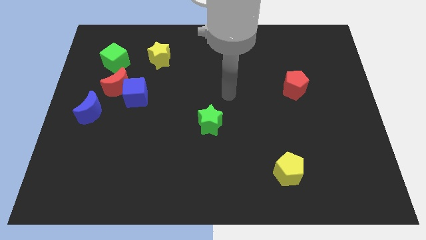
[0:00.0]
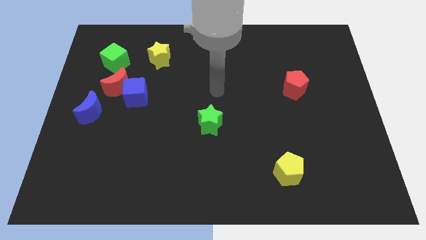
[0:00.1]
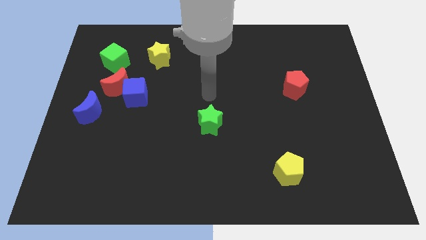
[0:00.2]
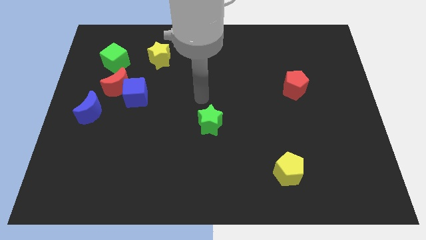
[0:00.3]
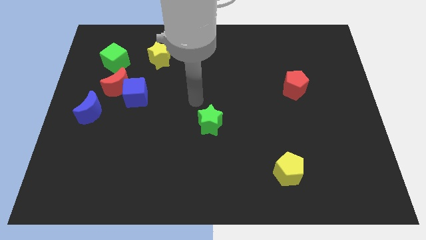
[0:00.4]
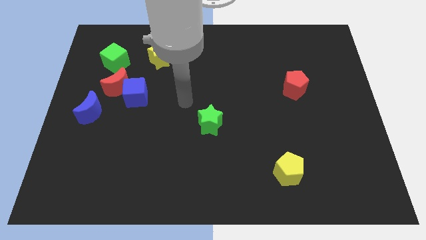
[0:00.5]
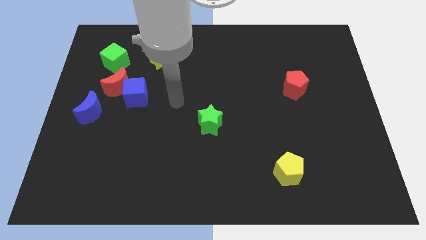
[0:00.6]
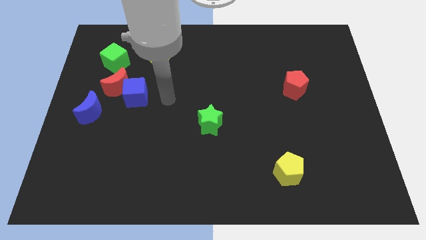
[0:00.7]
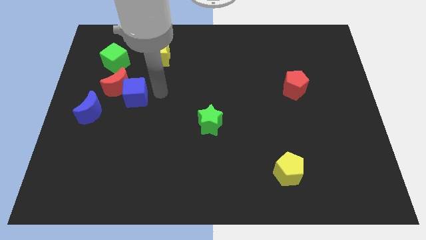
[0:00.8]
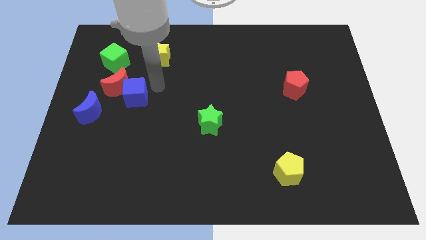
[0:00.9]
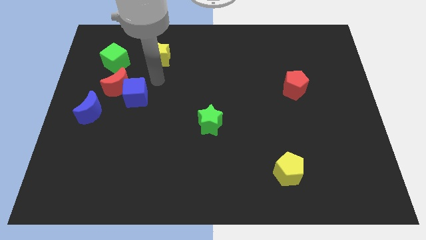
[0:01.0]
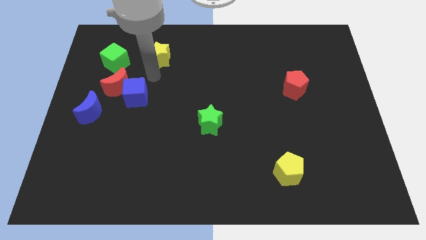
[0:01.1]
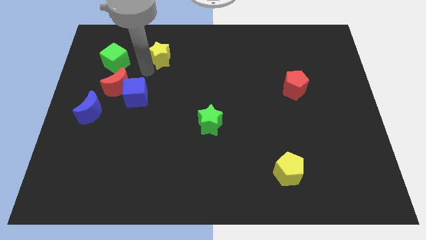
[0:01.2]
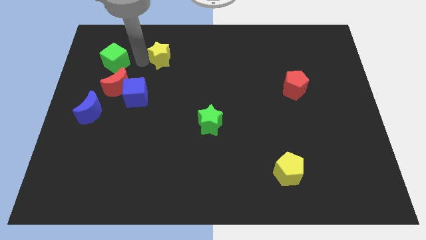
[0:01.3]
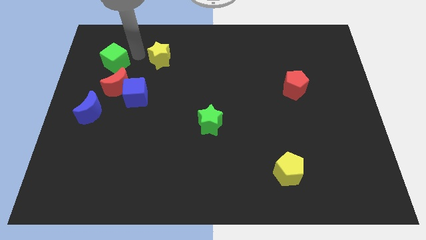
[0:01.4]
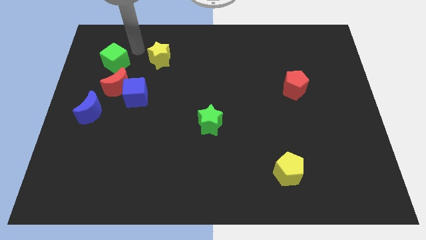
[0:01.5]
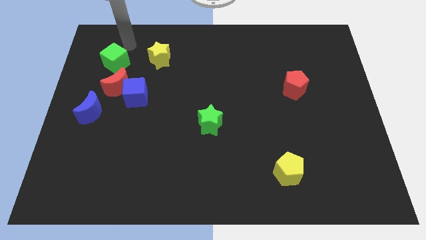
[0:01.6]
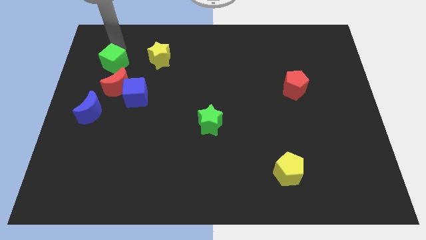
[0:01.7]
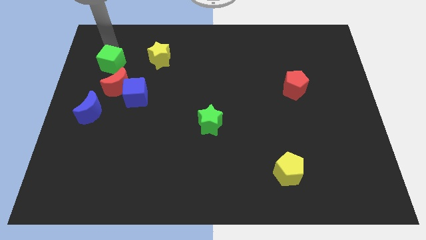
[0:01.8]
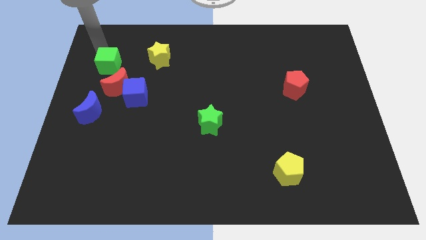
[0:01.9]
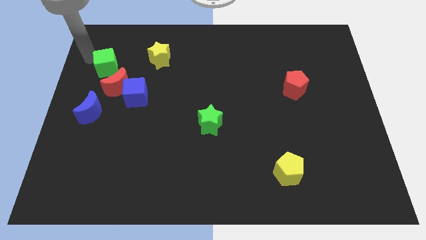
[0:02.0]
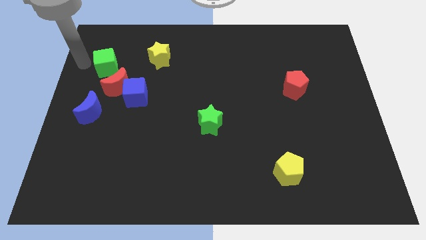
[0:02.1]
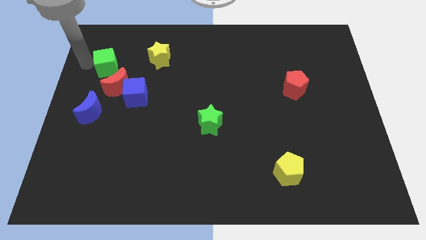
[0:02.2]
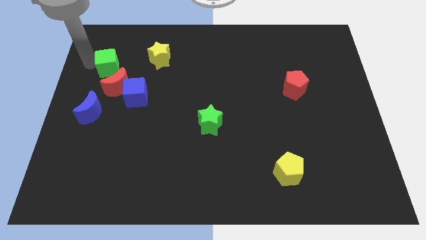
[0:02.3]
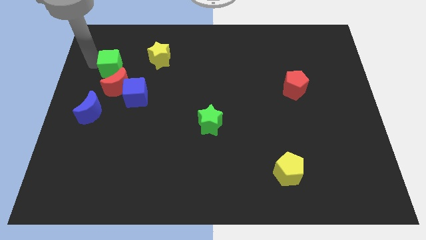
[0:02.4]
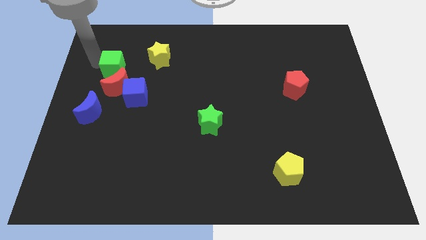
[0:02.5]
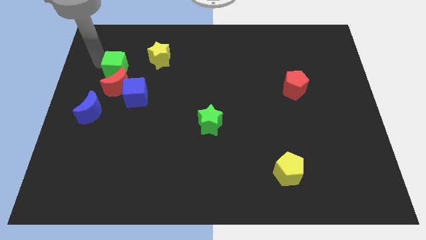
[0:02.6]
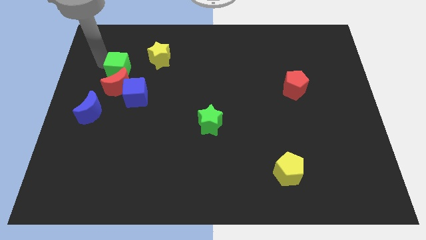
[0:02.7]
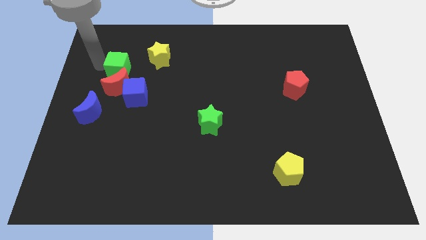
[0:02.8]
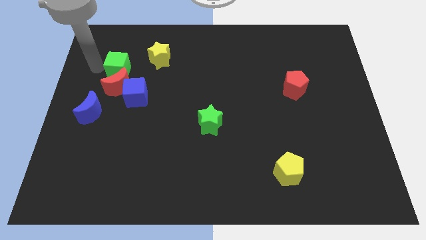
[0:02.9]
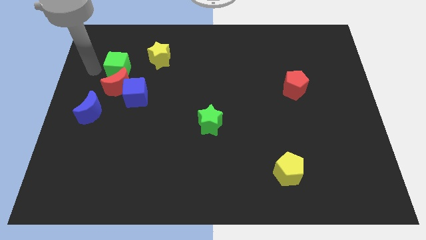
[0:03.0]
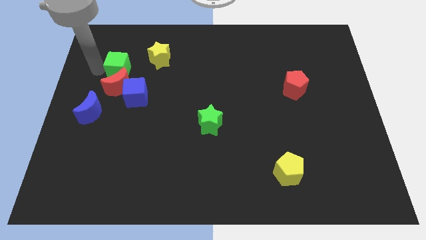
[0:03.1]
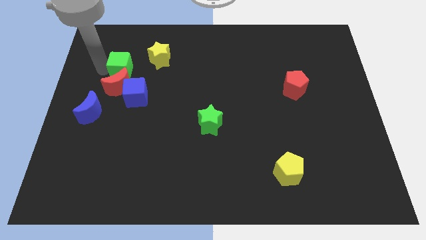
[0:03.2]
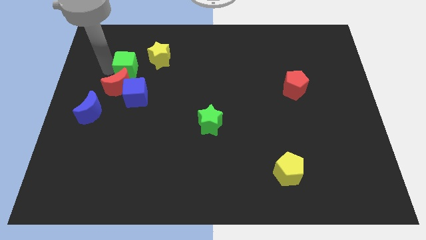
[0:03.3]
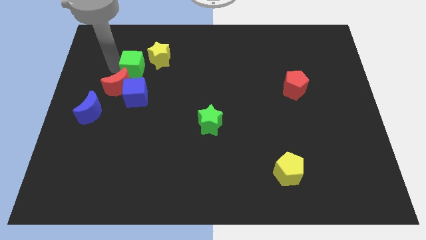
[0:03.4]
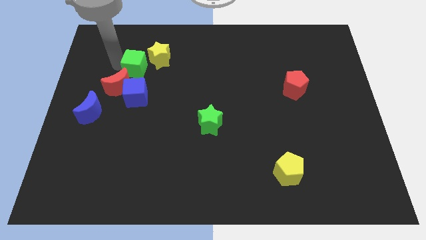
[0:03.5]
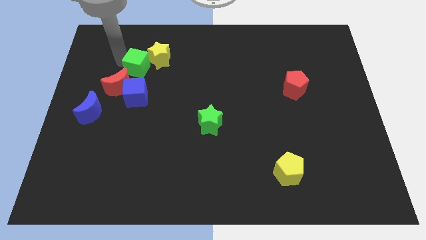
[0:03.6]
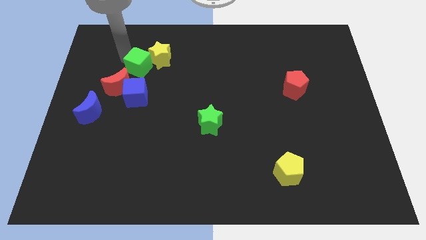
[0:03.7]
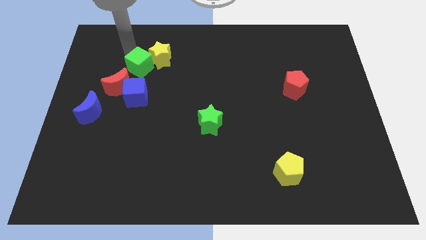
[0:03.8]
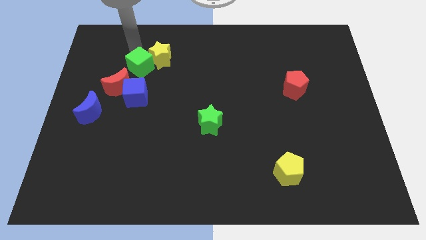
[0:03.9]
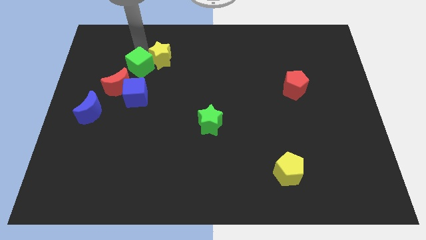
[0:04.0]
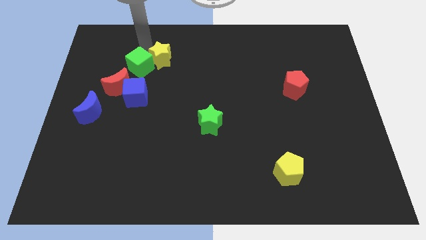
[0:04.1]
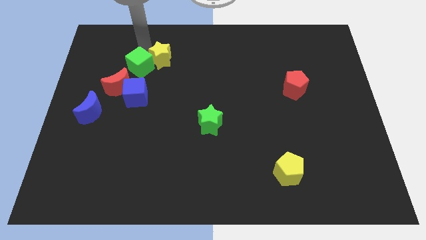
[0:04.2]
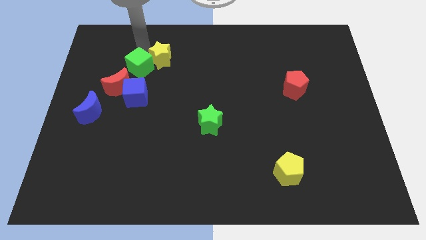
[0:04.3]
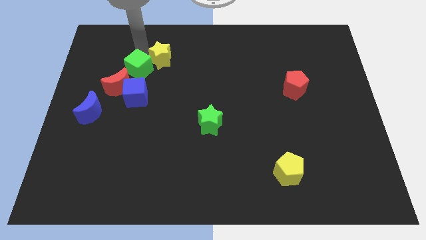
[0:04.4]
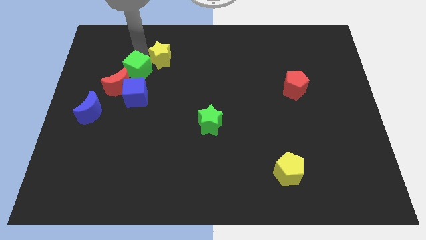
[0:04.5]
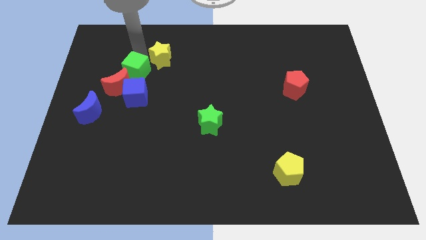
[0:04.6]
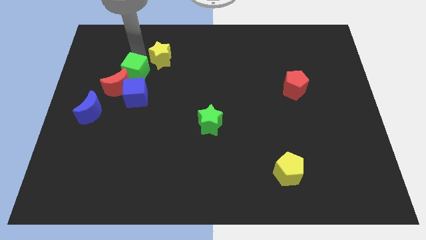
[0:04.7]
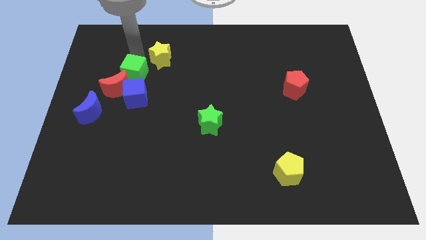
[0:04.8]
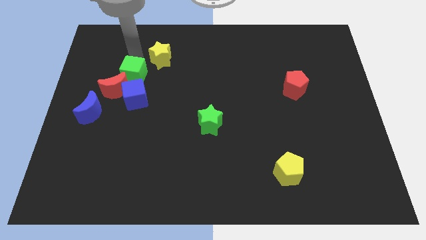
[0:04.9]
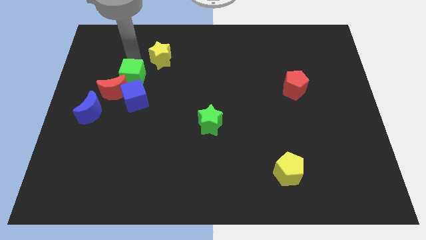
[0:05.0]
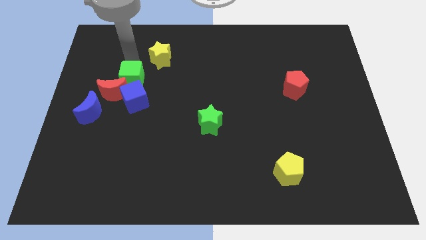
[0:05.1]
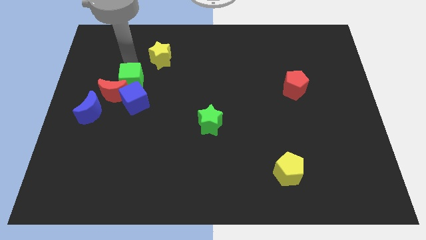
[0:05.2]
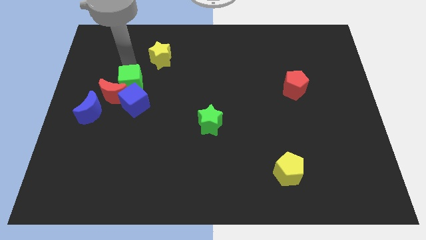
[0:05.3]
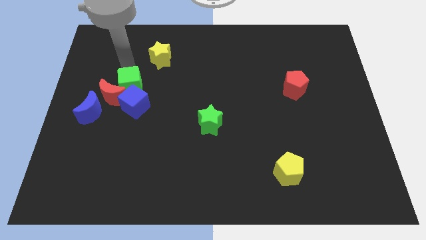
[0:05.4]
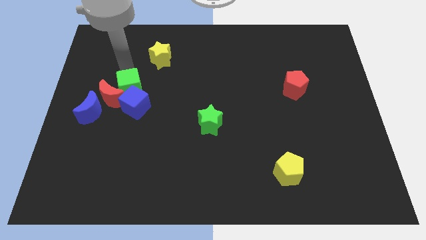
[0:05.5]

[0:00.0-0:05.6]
put the green cube to the blue cube

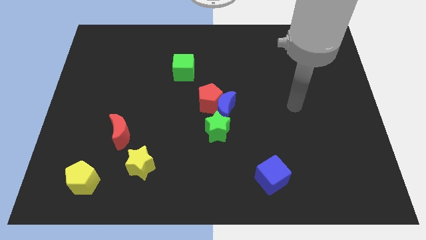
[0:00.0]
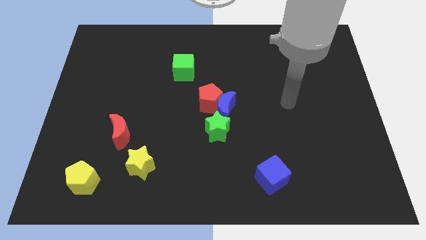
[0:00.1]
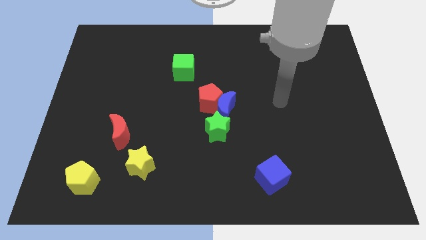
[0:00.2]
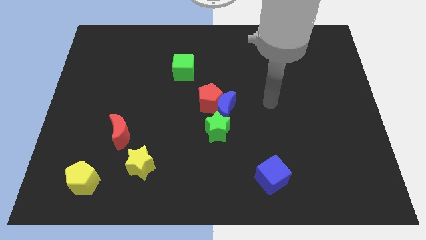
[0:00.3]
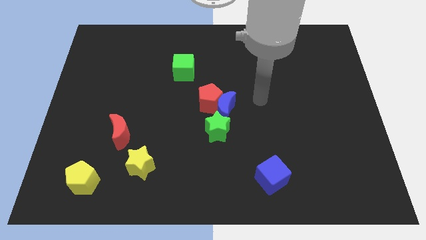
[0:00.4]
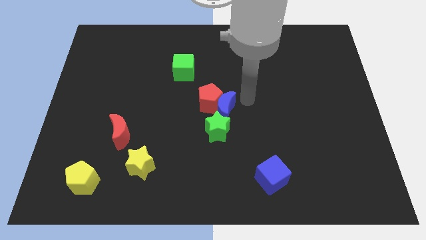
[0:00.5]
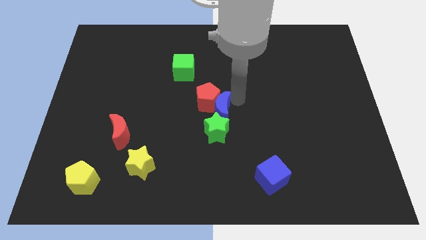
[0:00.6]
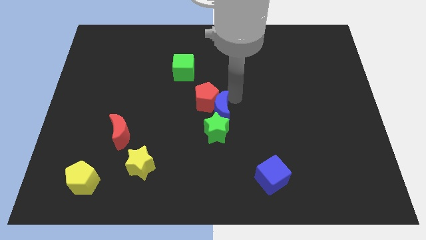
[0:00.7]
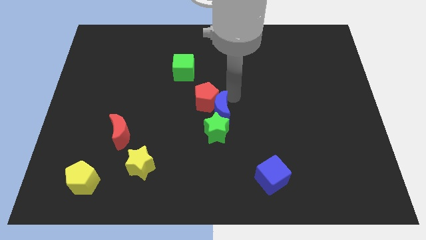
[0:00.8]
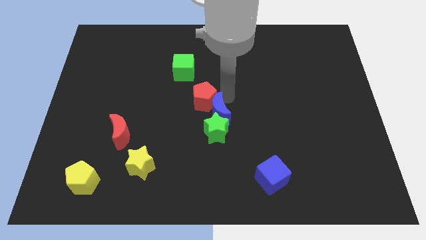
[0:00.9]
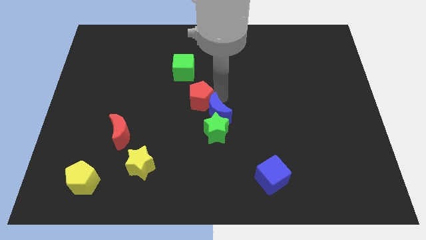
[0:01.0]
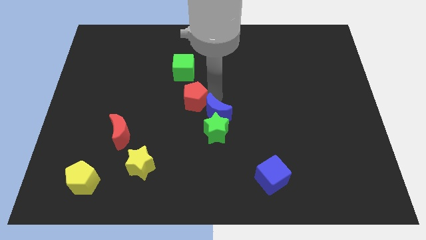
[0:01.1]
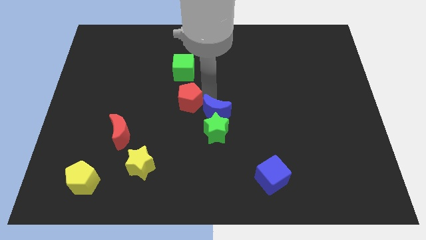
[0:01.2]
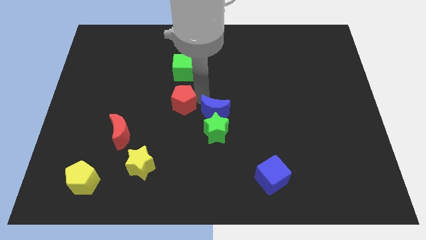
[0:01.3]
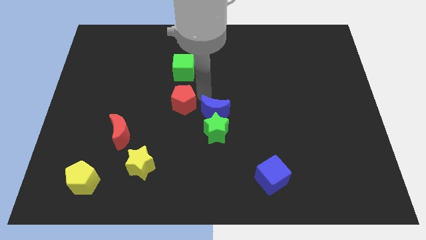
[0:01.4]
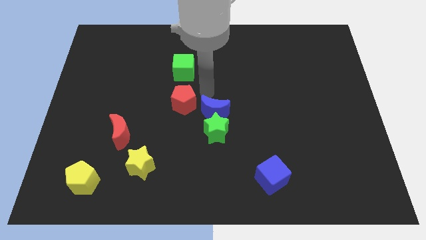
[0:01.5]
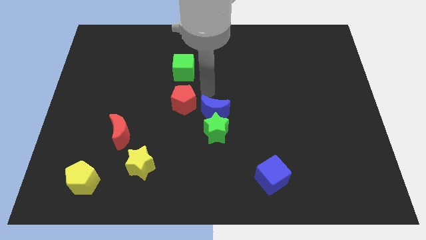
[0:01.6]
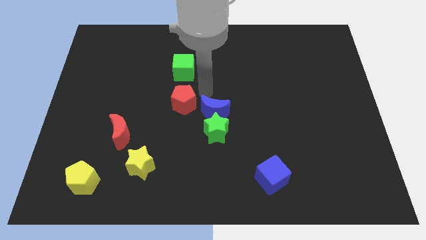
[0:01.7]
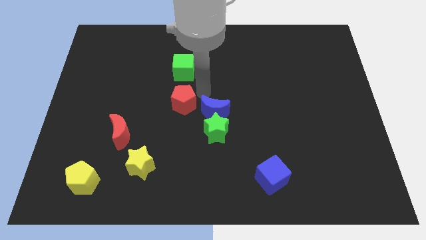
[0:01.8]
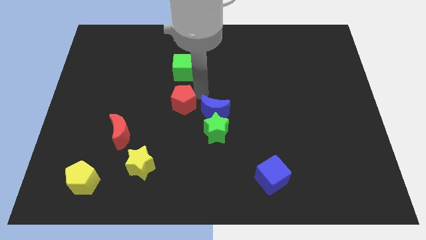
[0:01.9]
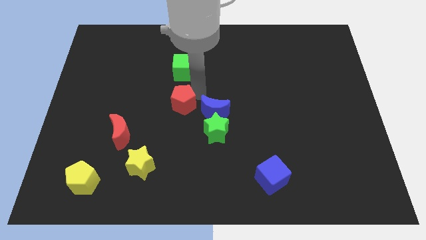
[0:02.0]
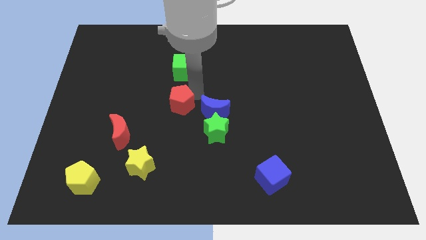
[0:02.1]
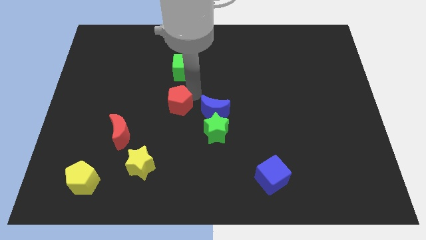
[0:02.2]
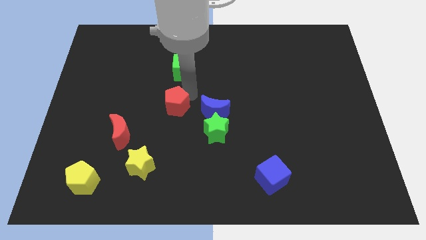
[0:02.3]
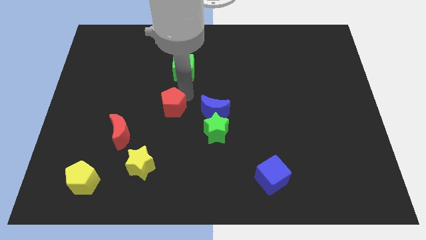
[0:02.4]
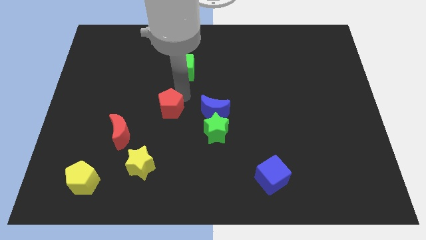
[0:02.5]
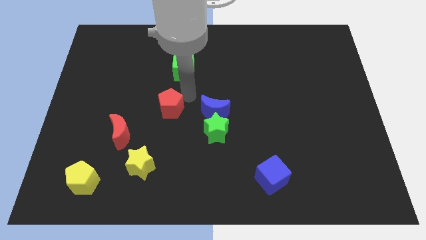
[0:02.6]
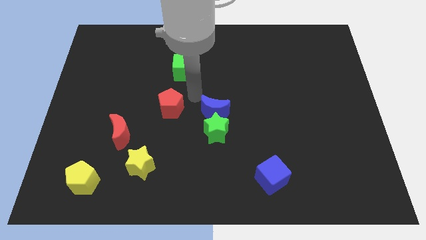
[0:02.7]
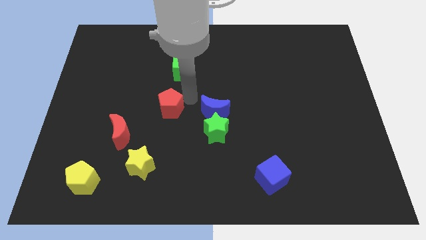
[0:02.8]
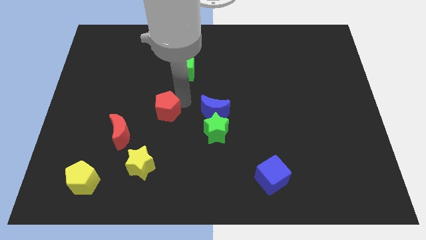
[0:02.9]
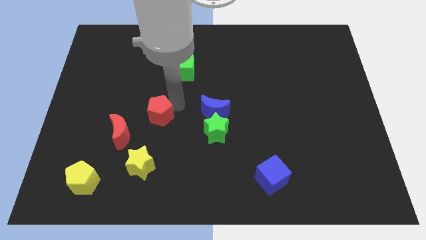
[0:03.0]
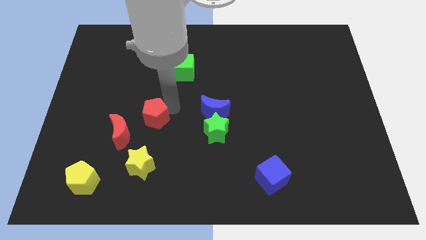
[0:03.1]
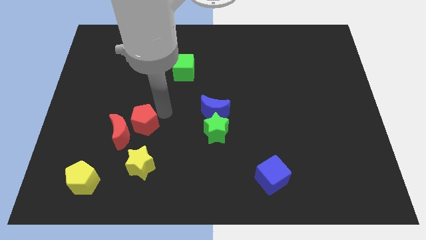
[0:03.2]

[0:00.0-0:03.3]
slide the red pentagon next to the red moon
